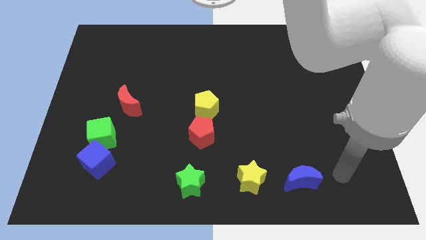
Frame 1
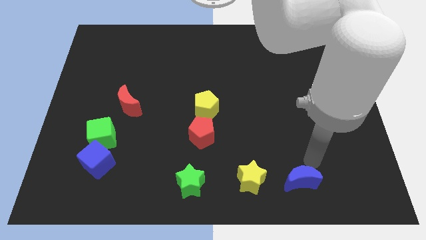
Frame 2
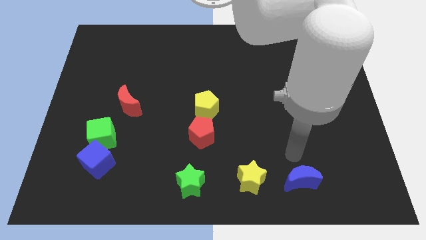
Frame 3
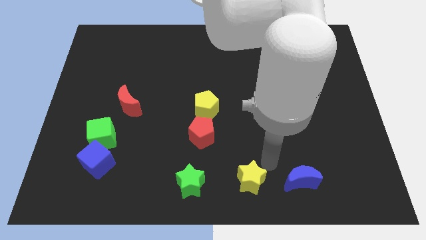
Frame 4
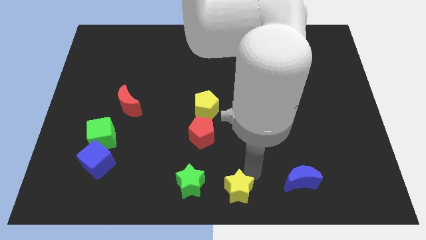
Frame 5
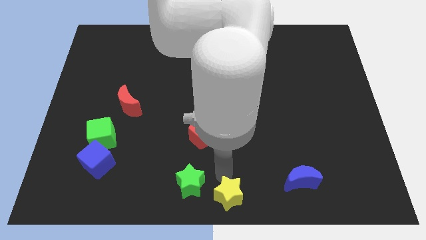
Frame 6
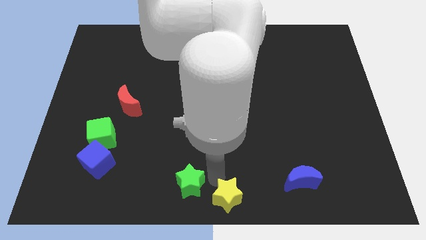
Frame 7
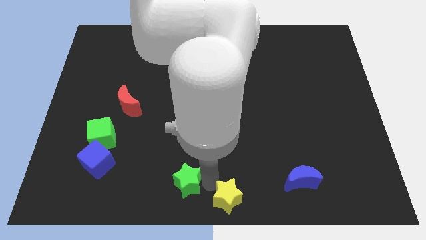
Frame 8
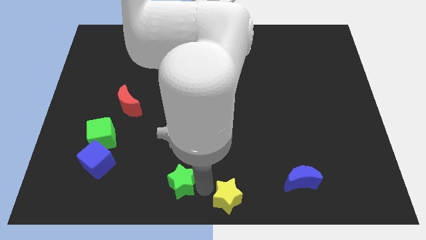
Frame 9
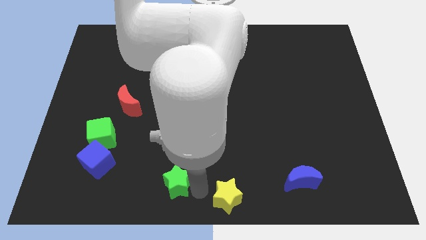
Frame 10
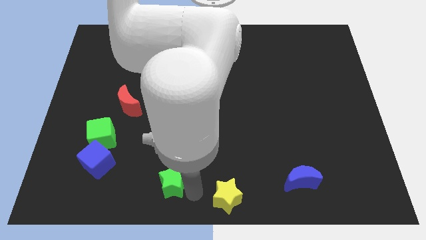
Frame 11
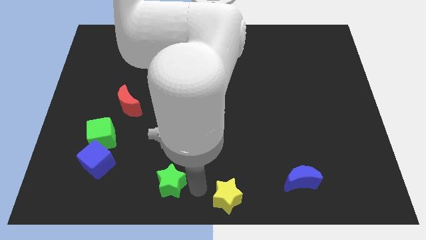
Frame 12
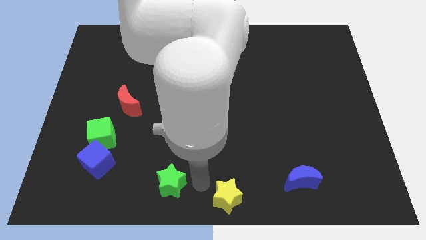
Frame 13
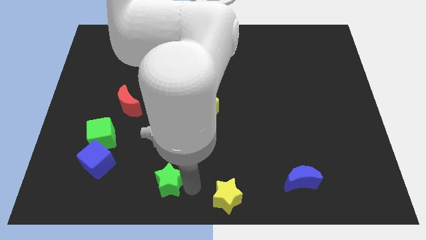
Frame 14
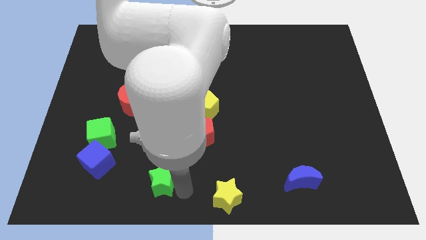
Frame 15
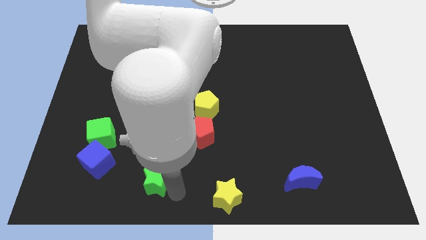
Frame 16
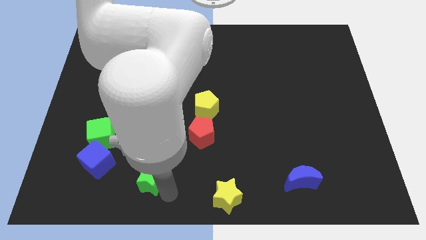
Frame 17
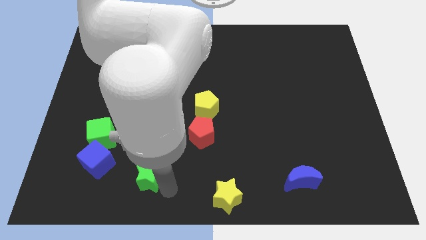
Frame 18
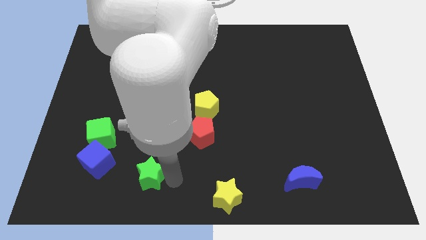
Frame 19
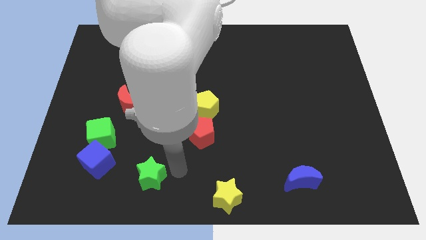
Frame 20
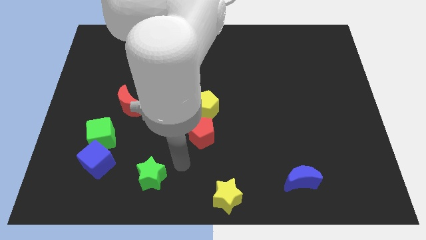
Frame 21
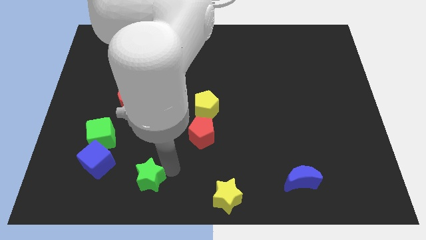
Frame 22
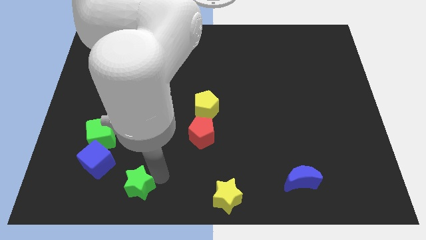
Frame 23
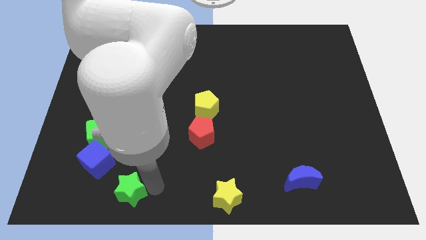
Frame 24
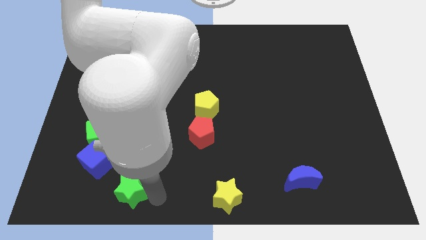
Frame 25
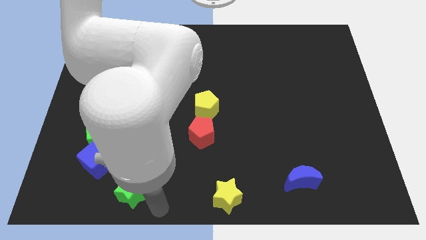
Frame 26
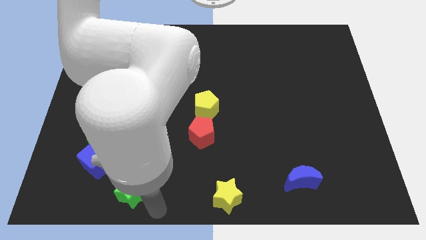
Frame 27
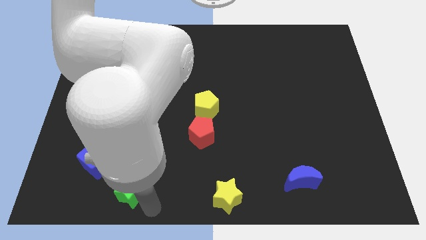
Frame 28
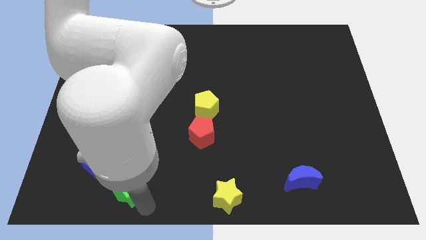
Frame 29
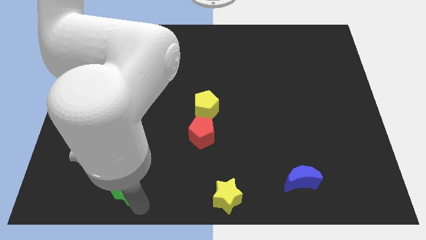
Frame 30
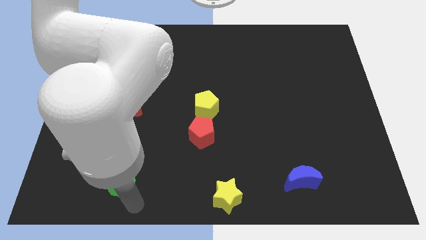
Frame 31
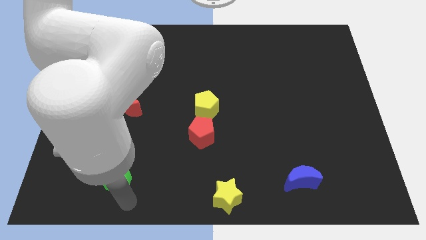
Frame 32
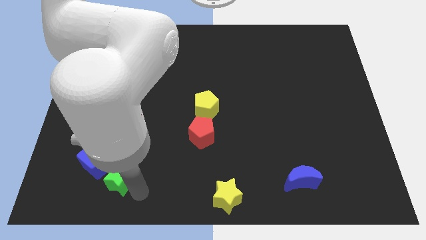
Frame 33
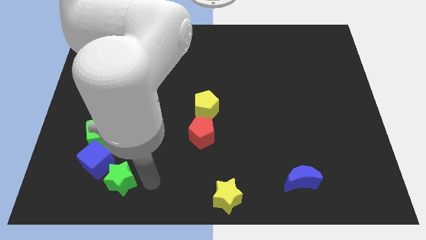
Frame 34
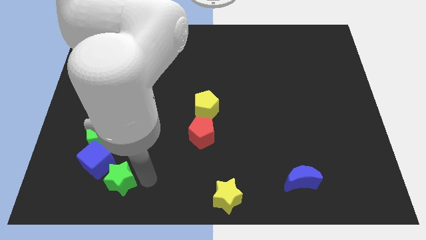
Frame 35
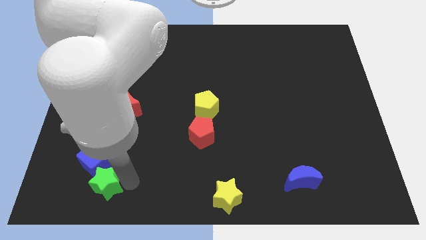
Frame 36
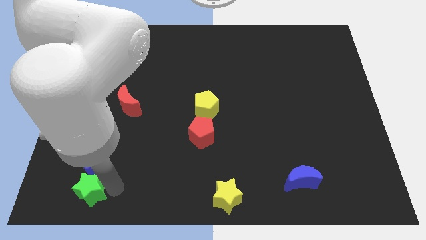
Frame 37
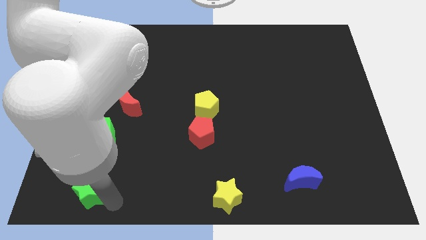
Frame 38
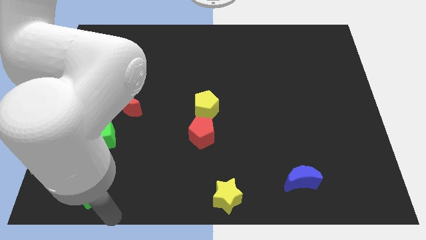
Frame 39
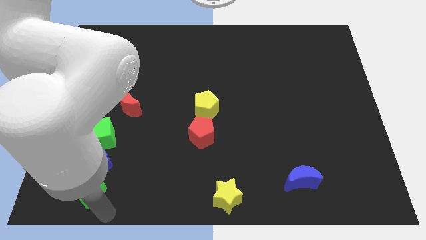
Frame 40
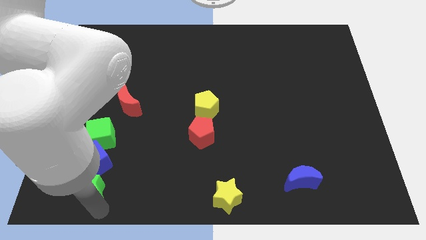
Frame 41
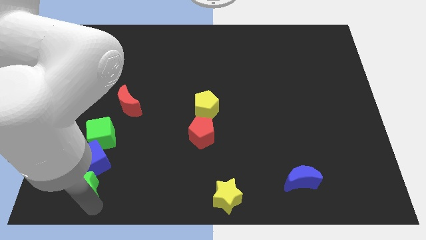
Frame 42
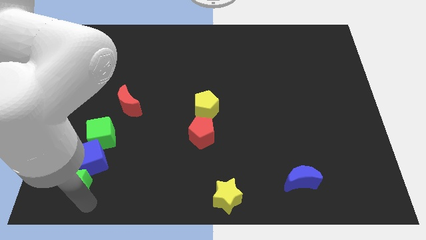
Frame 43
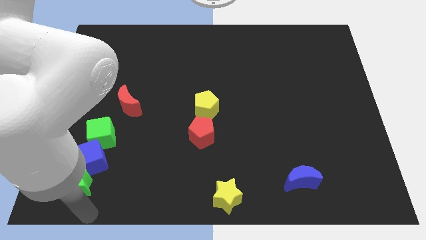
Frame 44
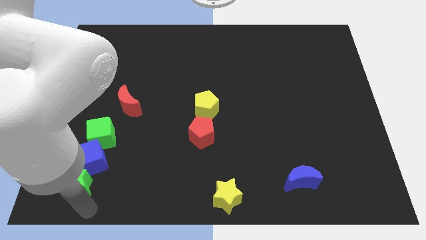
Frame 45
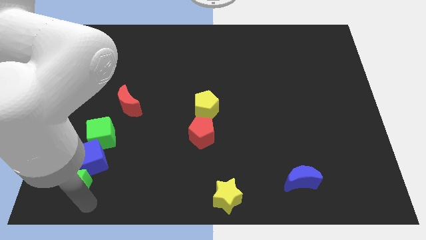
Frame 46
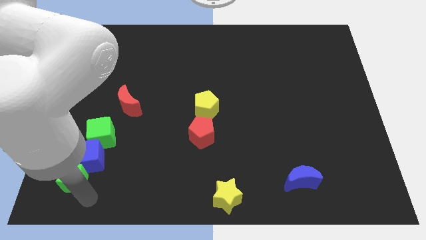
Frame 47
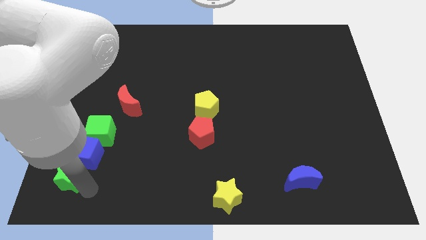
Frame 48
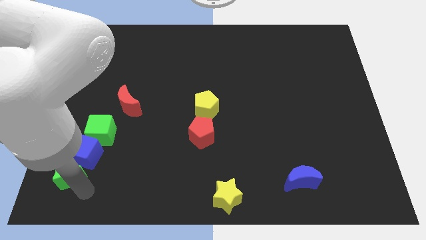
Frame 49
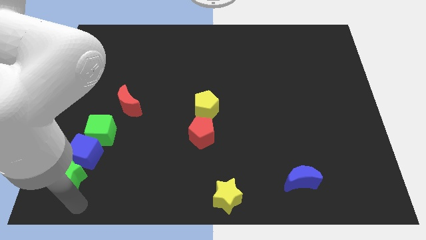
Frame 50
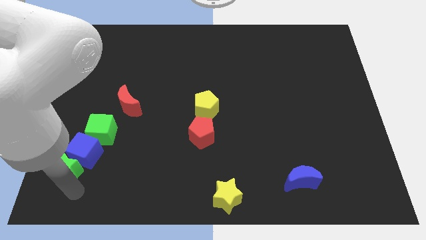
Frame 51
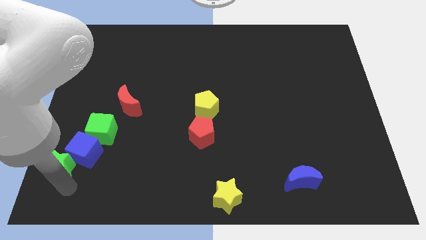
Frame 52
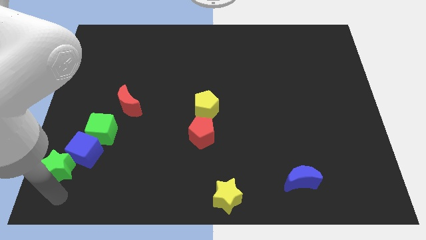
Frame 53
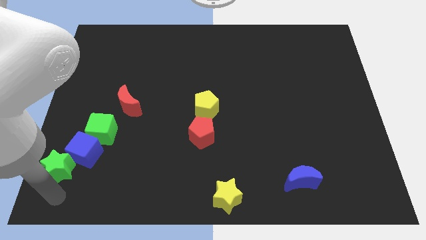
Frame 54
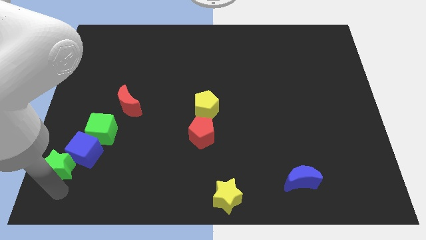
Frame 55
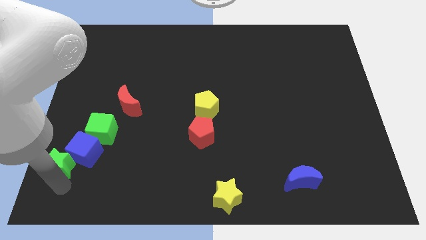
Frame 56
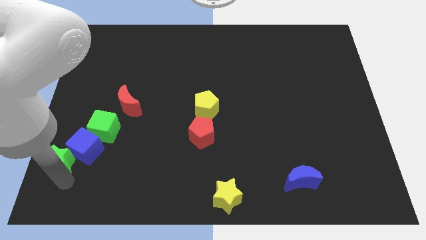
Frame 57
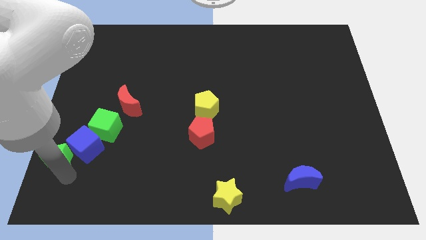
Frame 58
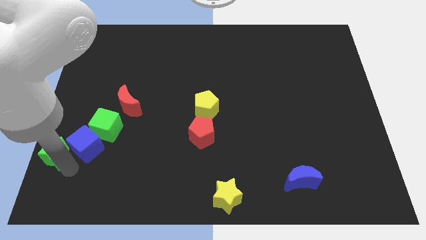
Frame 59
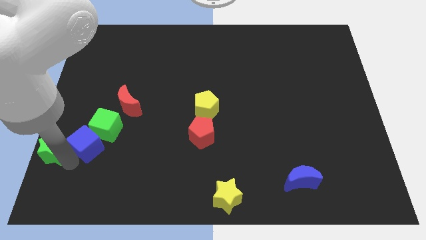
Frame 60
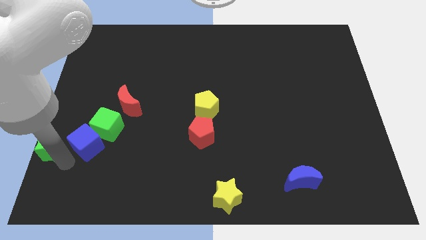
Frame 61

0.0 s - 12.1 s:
move the green star to the left side of the board
